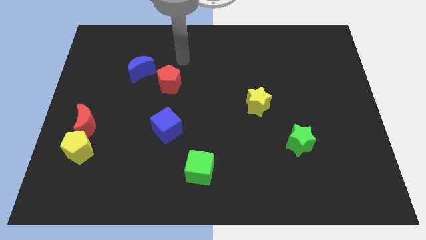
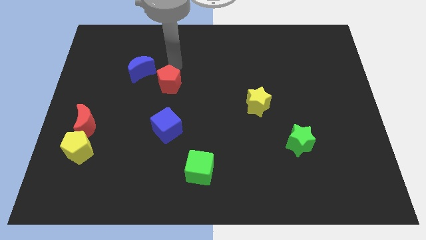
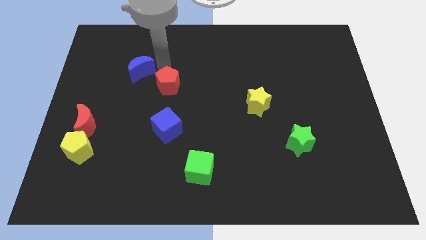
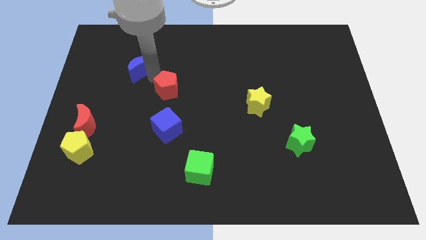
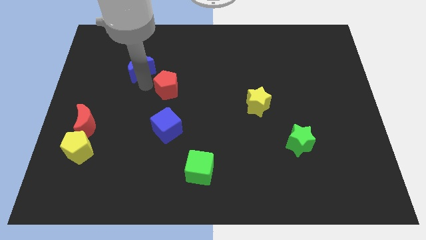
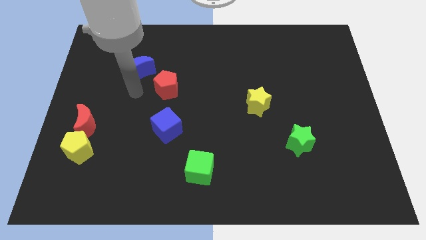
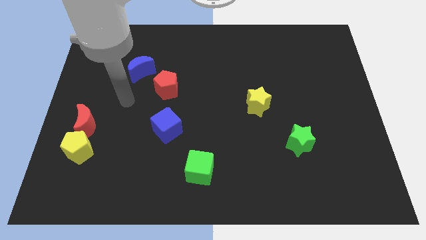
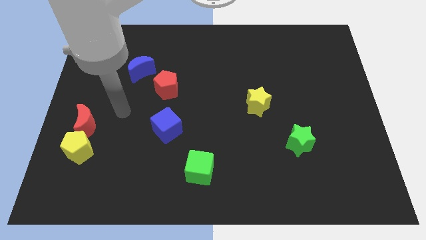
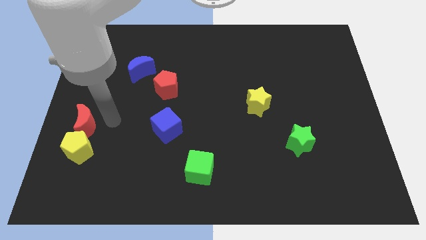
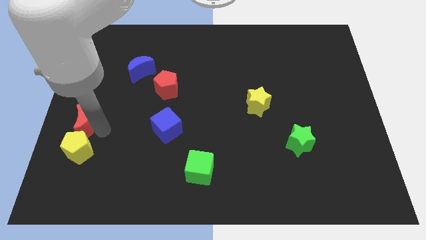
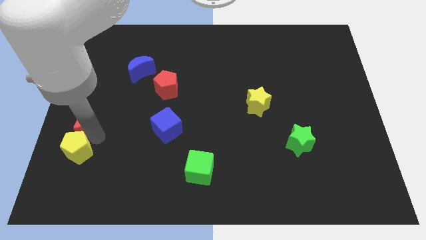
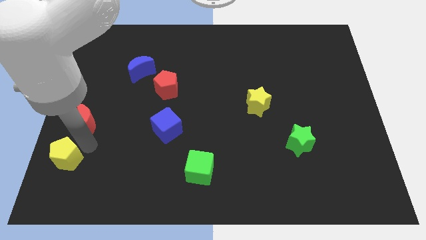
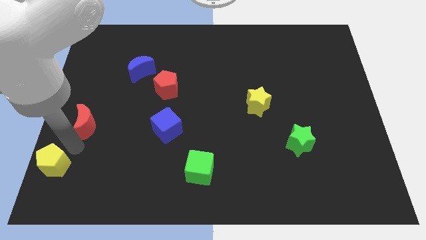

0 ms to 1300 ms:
move the red moon away from the yellow pentagon

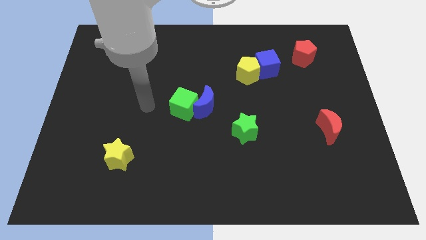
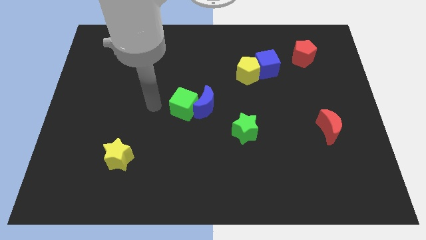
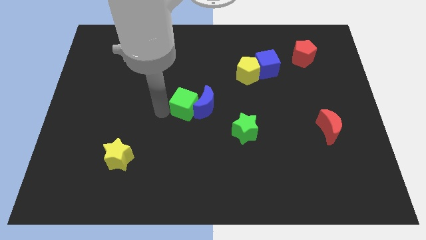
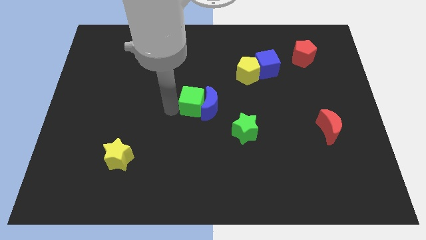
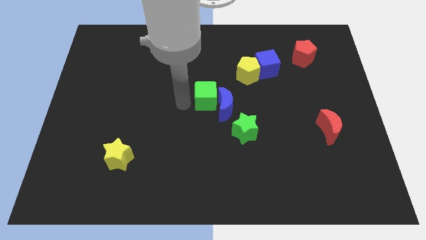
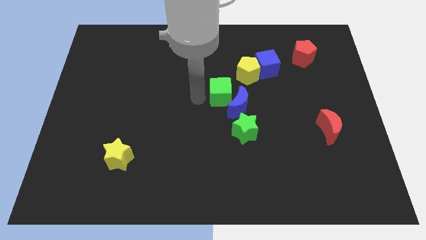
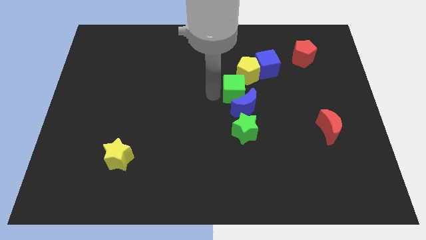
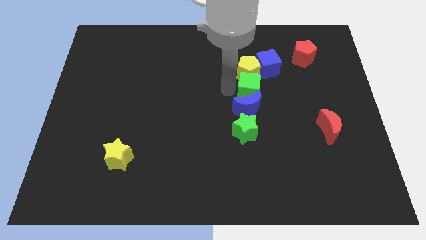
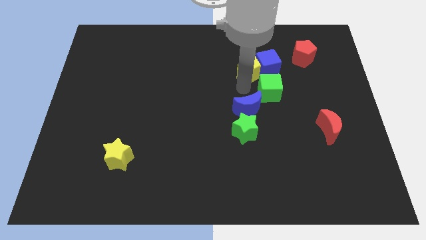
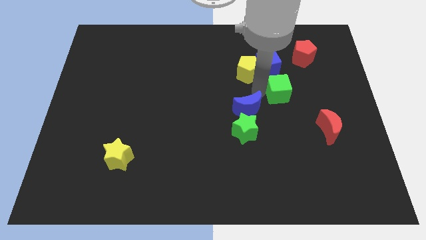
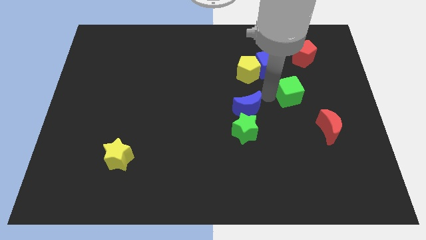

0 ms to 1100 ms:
separate the blue moon from the green cube

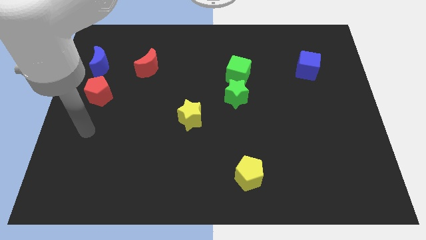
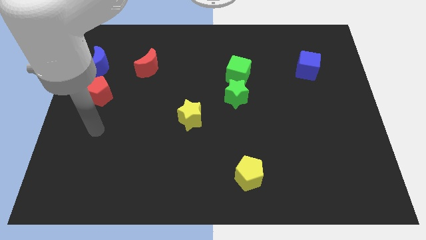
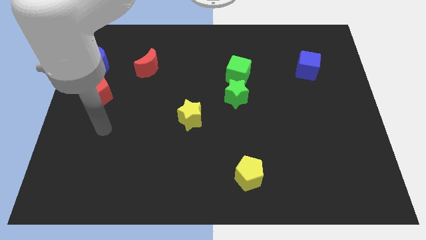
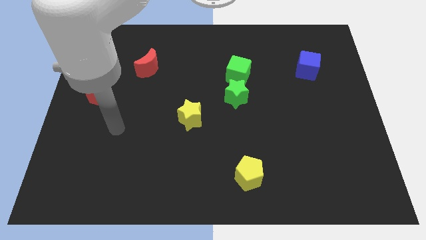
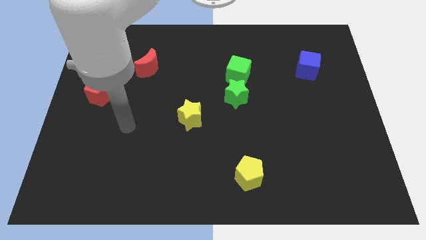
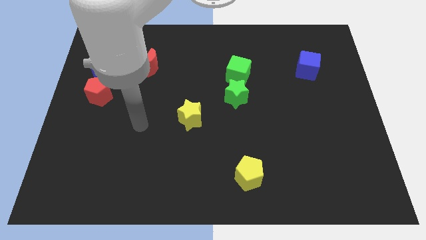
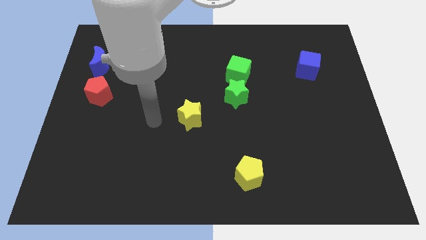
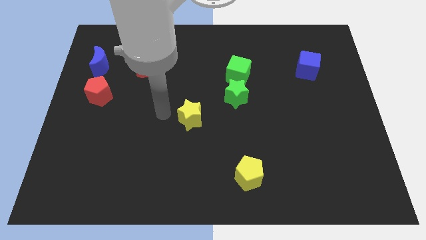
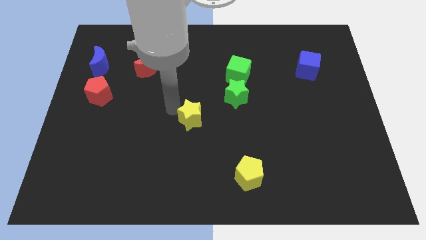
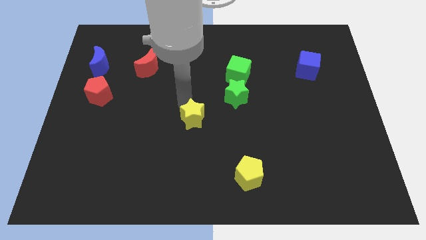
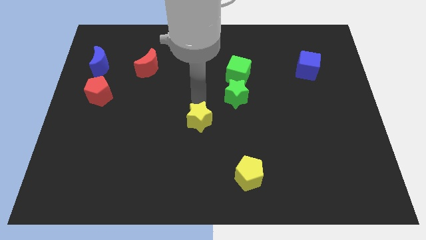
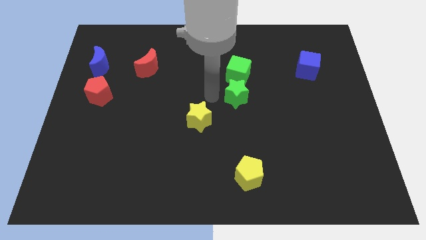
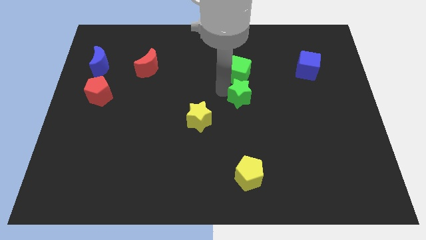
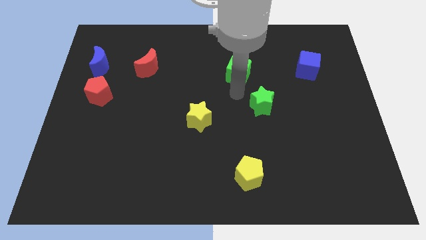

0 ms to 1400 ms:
pull the green cube apart from the green star

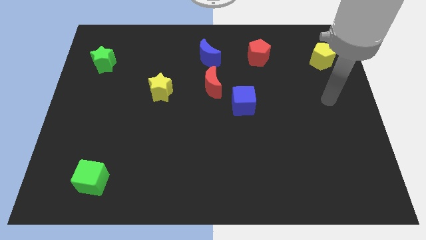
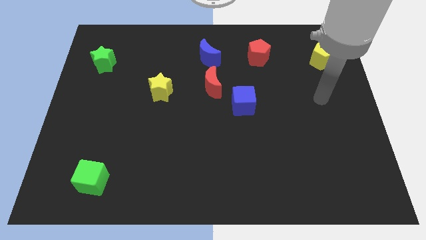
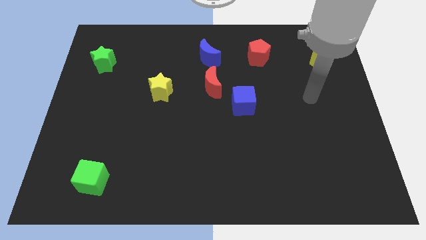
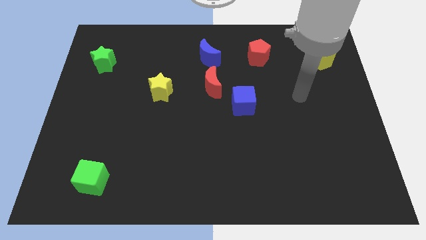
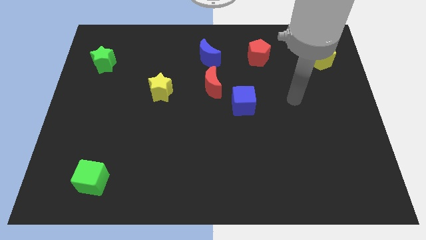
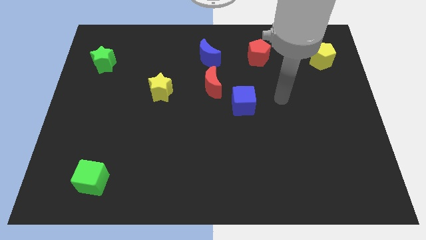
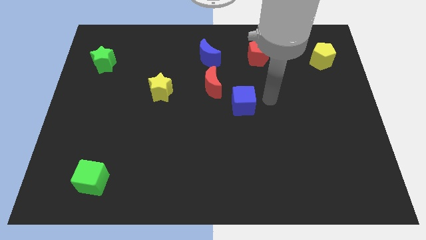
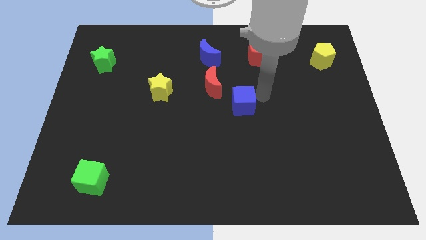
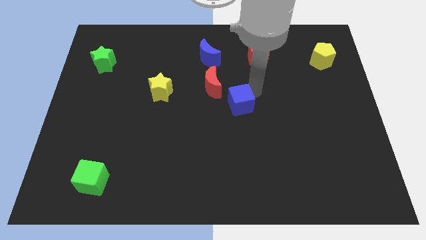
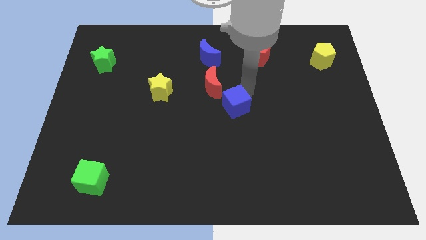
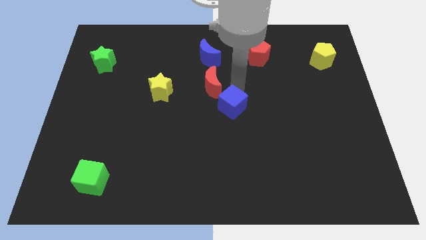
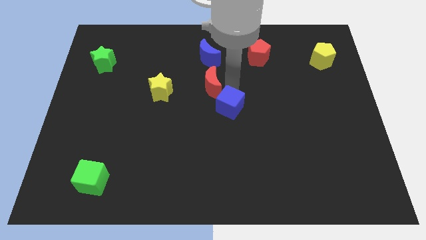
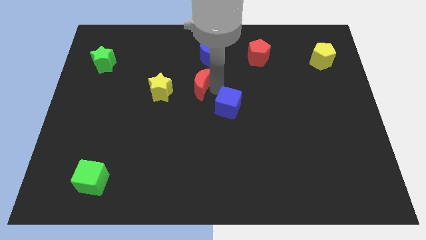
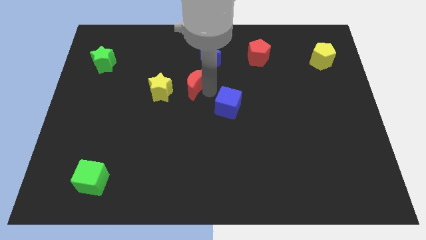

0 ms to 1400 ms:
pull the blue cube apart from the red moon

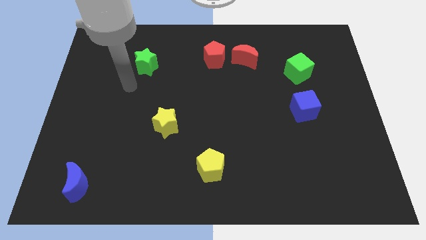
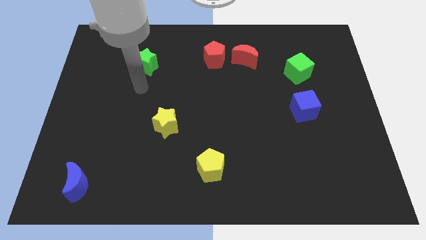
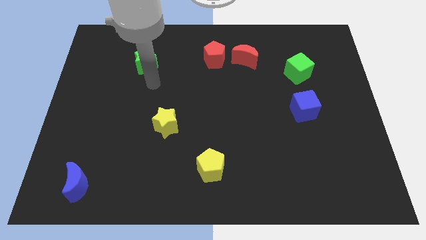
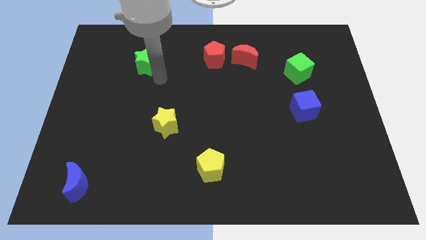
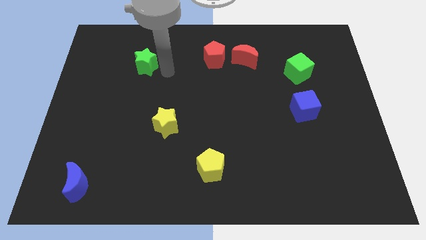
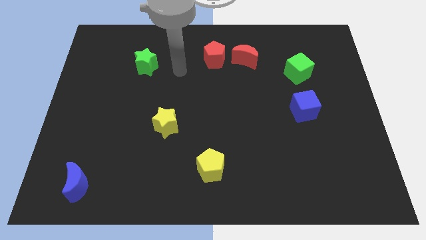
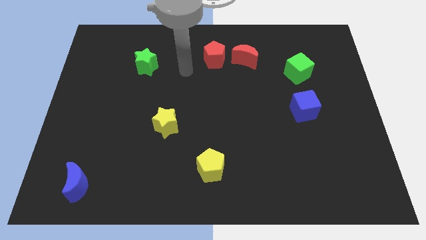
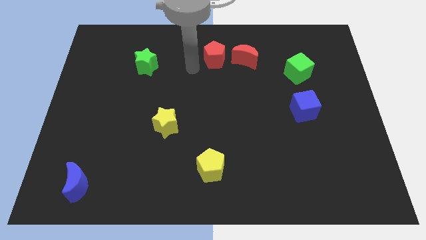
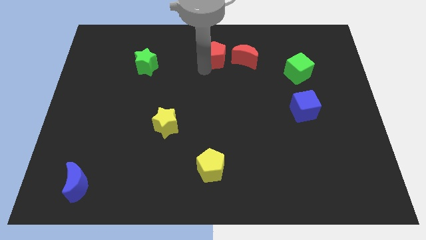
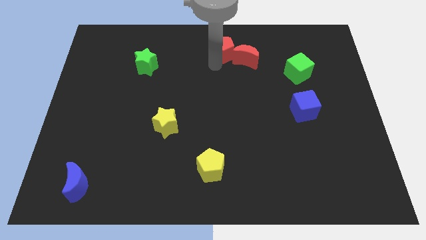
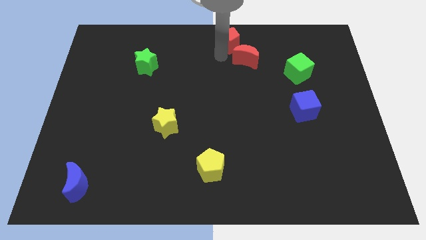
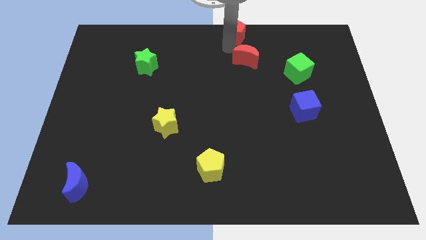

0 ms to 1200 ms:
pull the red moon apart from the red pentagon

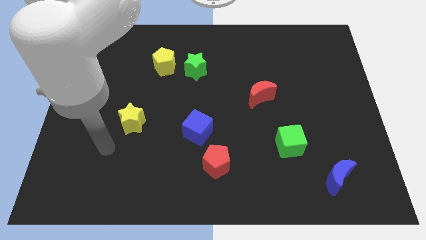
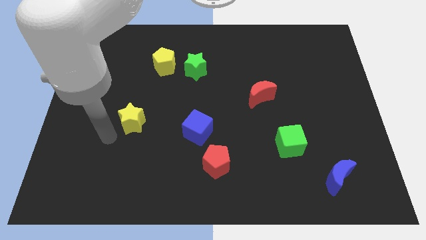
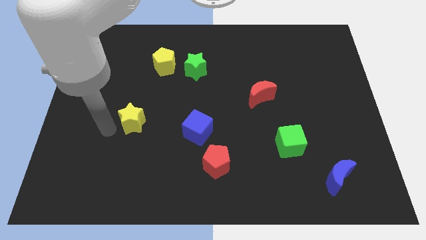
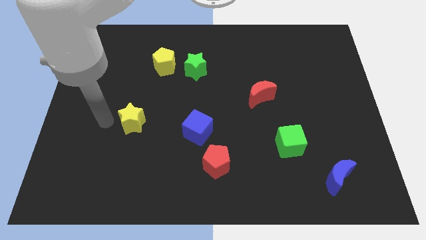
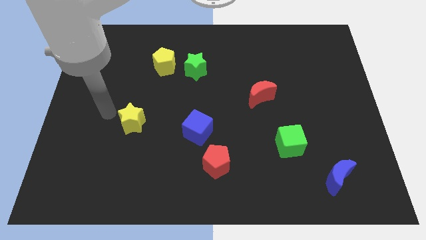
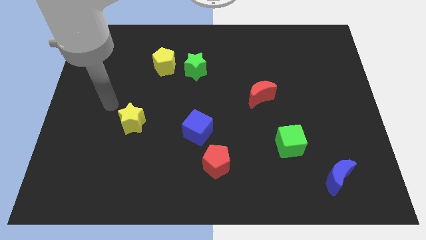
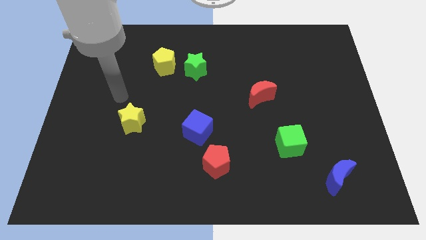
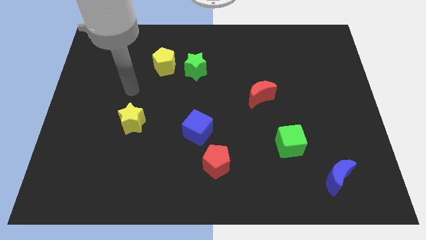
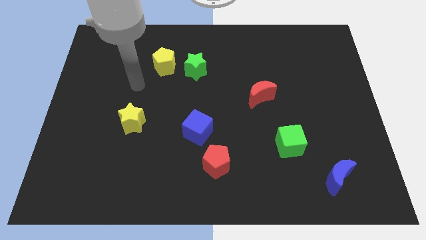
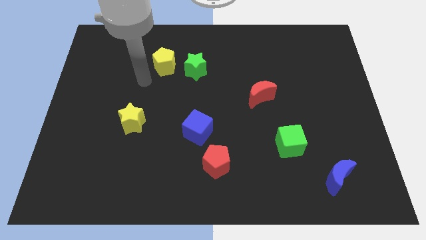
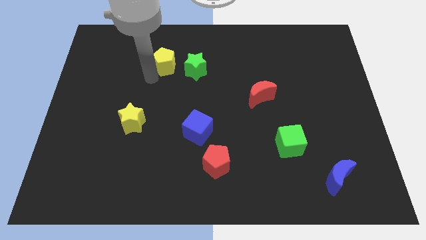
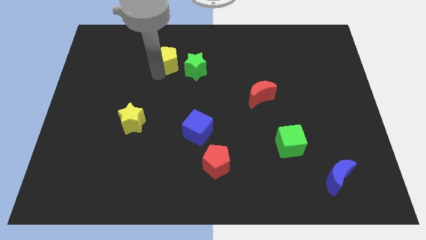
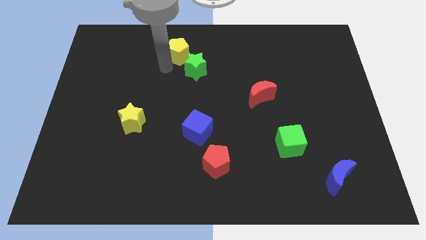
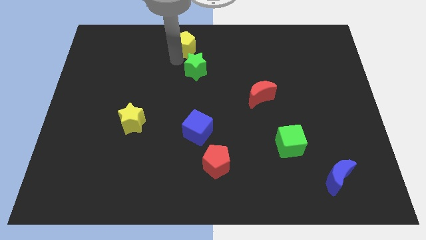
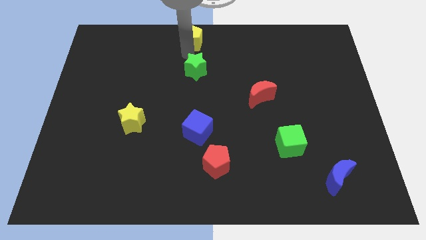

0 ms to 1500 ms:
move the green star away from the yellow pentagon

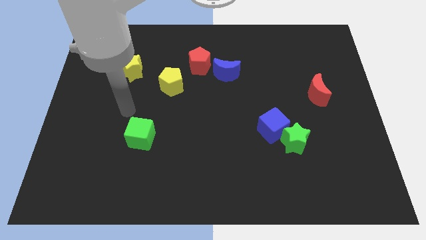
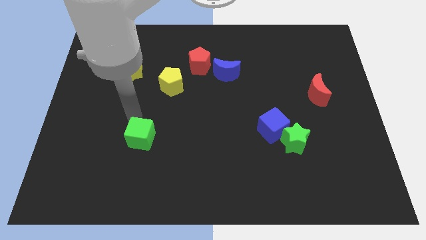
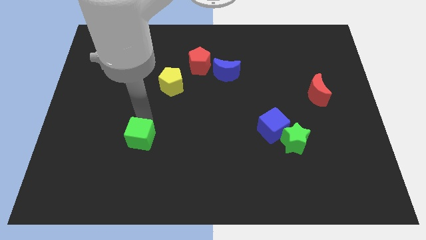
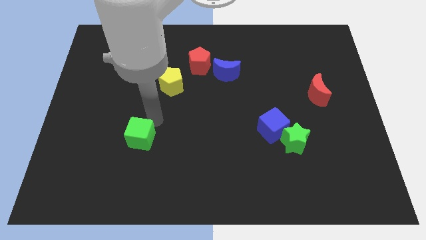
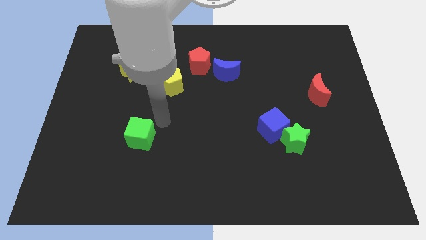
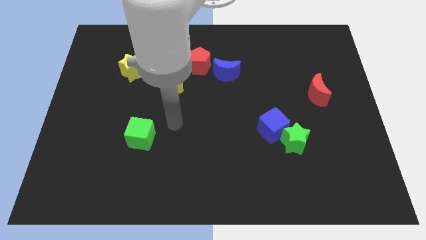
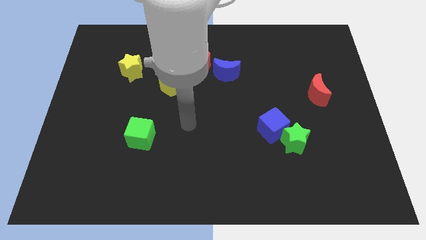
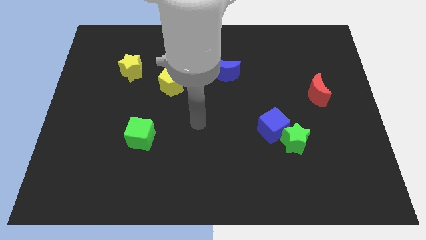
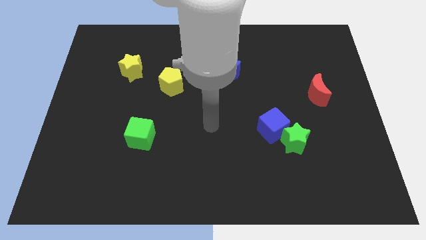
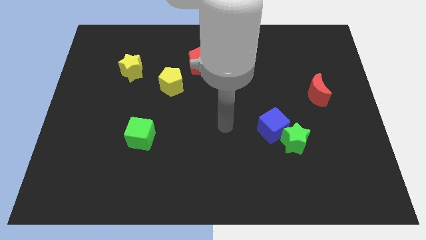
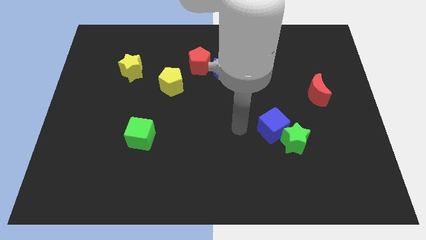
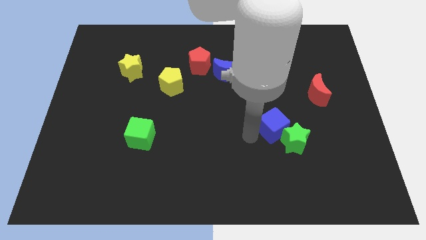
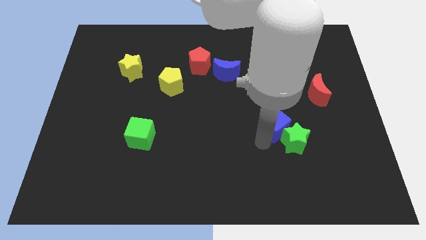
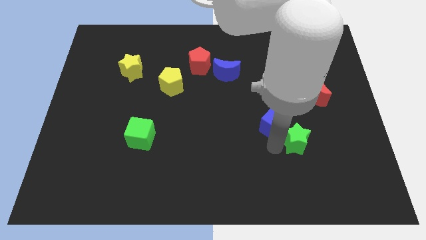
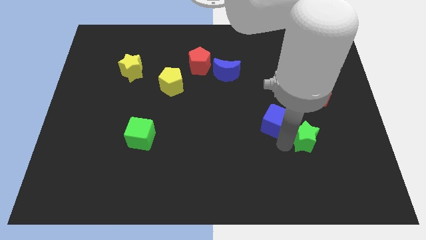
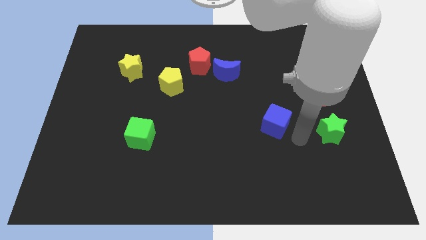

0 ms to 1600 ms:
separate the blue cube from the green star
